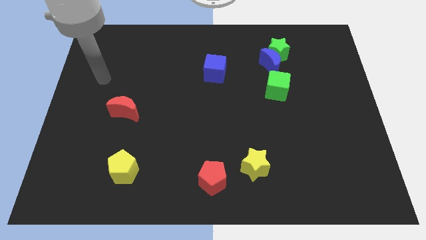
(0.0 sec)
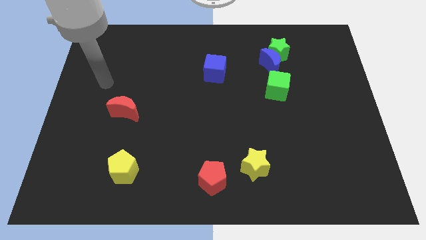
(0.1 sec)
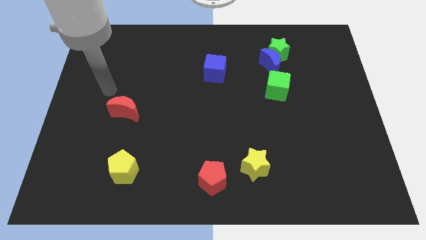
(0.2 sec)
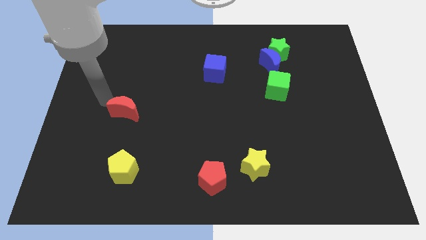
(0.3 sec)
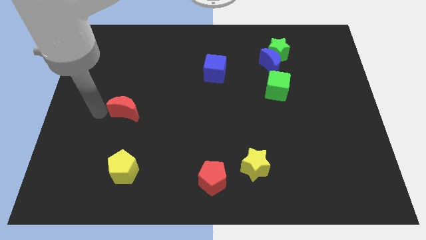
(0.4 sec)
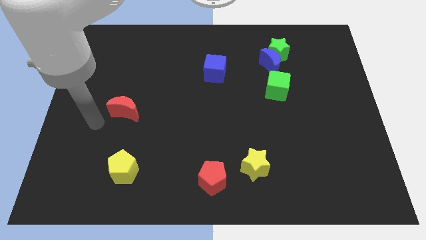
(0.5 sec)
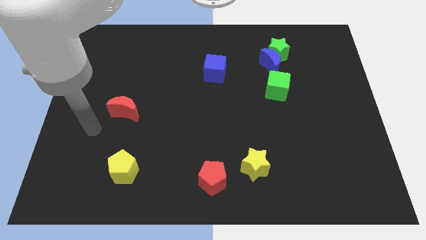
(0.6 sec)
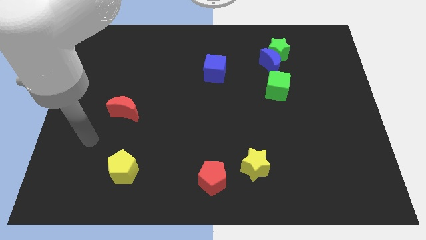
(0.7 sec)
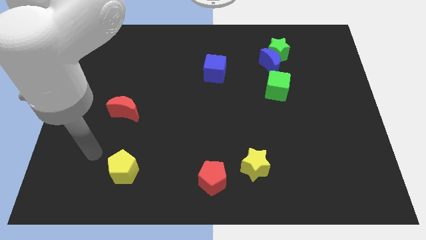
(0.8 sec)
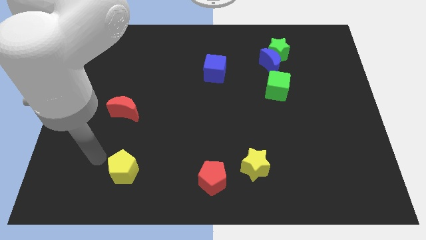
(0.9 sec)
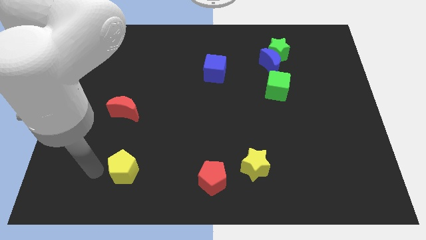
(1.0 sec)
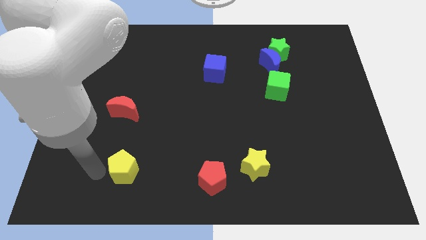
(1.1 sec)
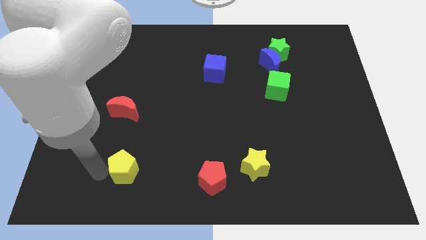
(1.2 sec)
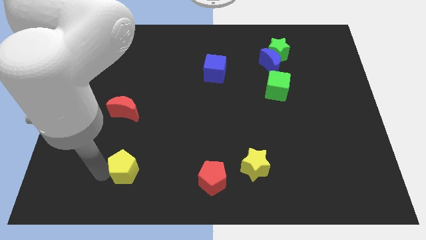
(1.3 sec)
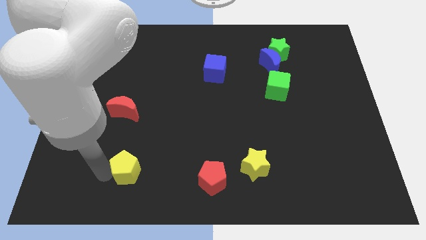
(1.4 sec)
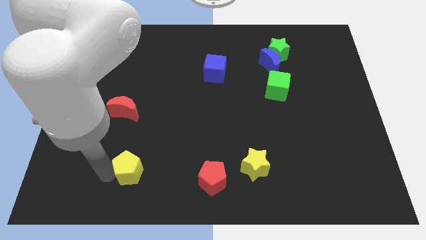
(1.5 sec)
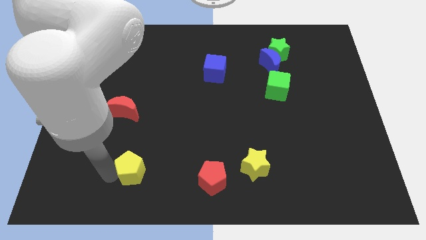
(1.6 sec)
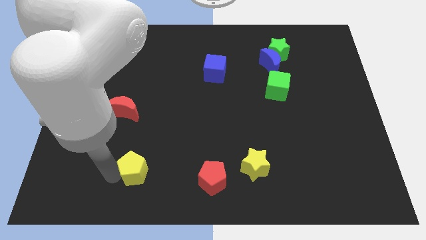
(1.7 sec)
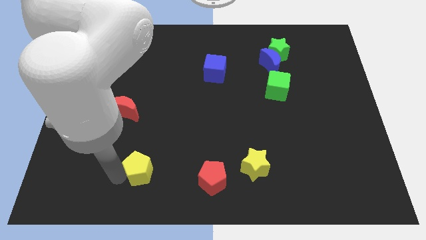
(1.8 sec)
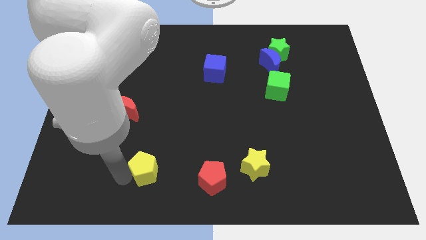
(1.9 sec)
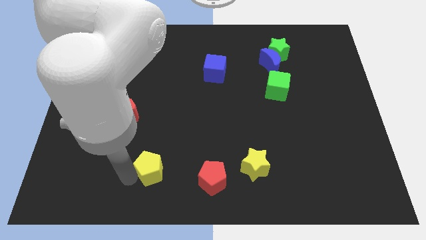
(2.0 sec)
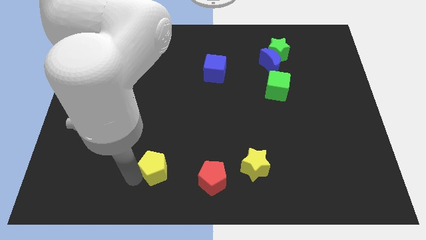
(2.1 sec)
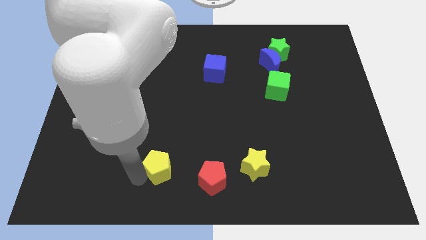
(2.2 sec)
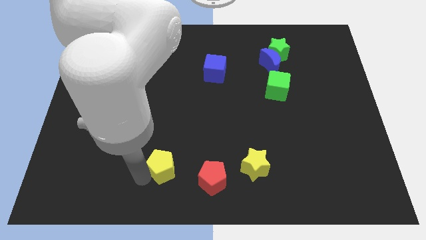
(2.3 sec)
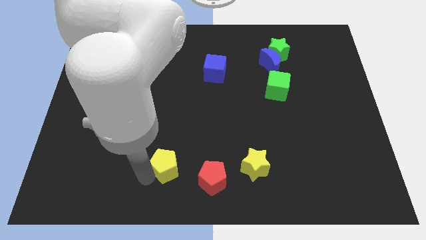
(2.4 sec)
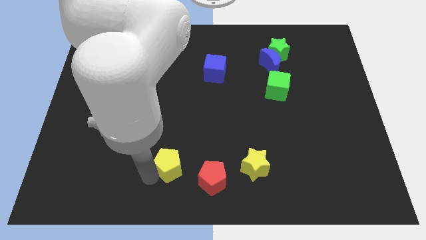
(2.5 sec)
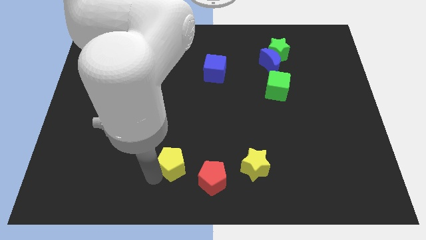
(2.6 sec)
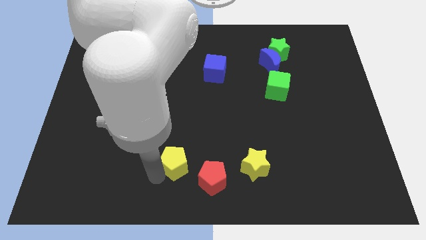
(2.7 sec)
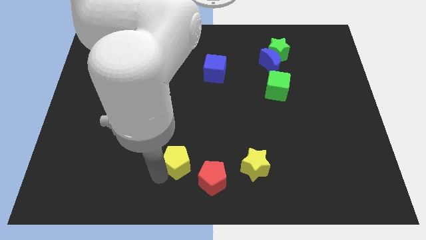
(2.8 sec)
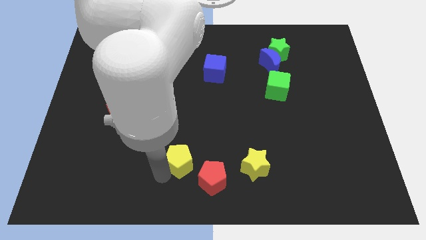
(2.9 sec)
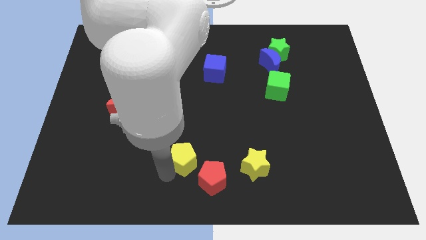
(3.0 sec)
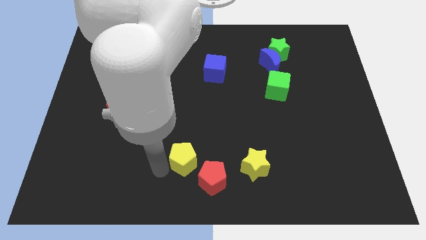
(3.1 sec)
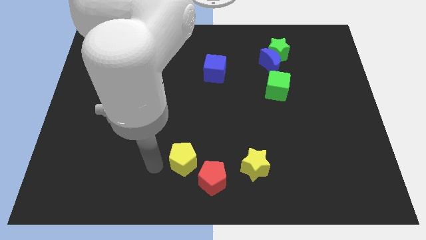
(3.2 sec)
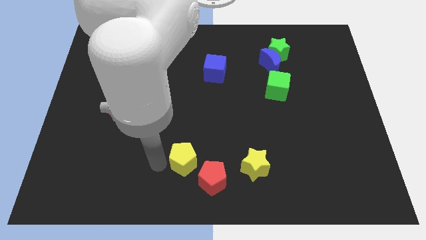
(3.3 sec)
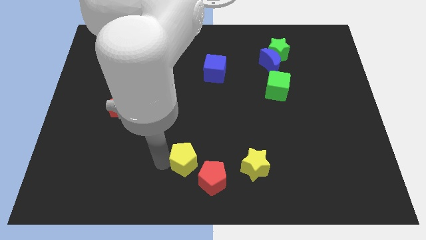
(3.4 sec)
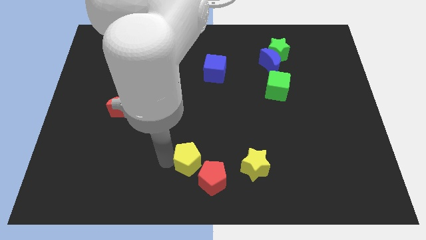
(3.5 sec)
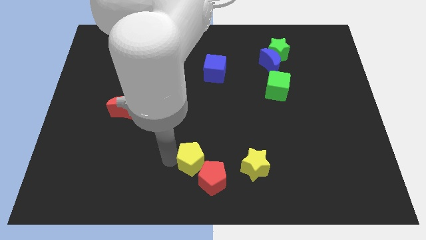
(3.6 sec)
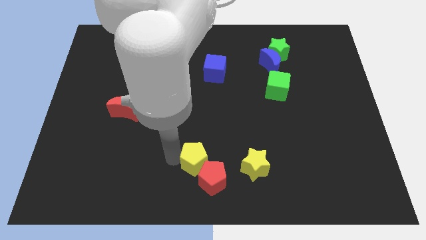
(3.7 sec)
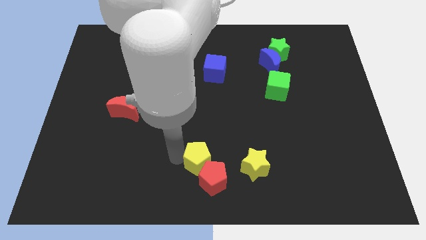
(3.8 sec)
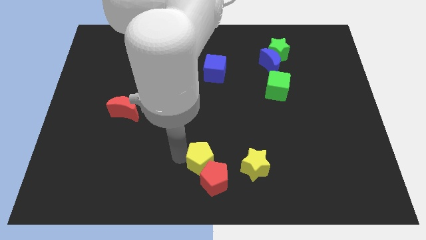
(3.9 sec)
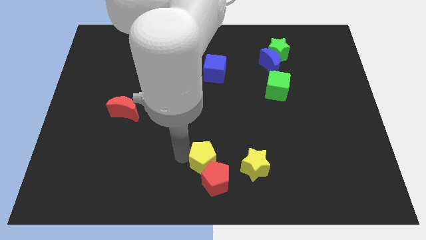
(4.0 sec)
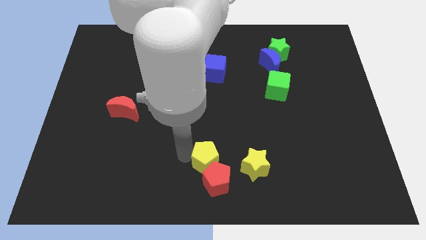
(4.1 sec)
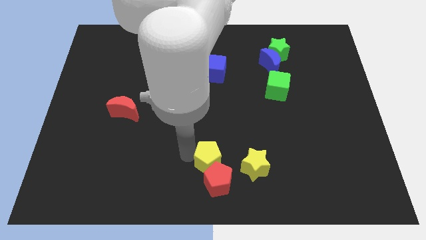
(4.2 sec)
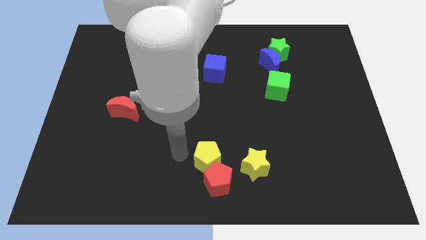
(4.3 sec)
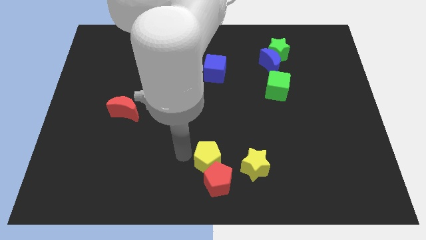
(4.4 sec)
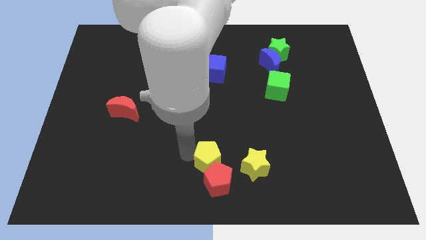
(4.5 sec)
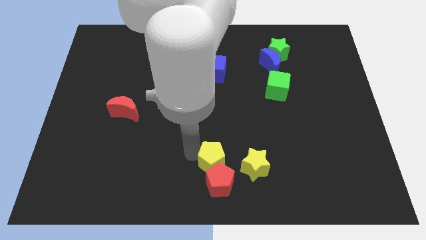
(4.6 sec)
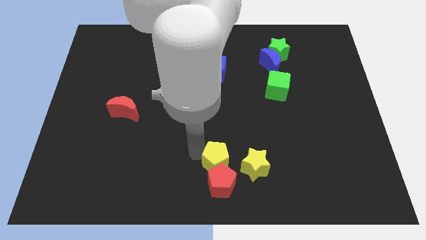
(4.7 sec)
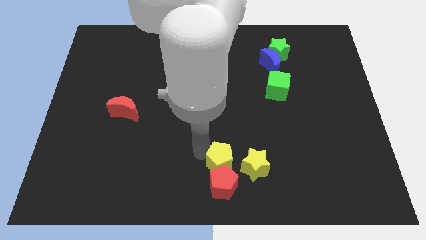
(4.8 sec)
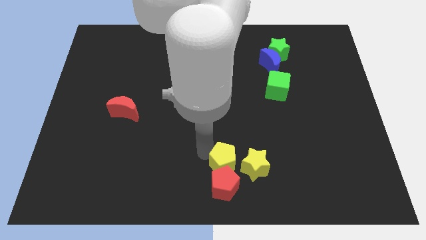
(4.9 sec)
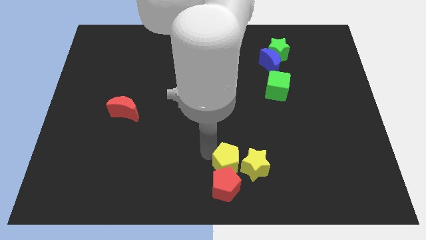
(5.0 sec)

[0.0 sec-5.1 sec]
move the yellow pentagon towards the yellow star

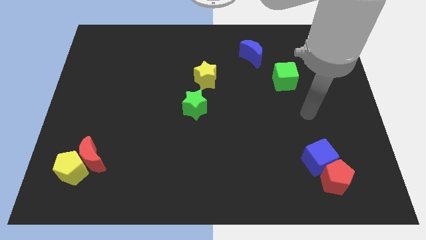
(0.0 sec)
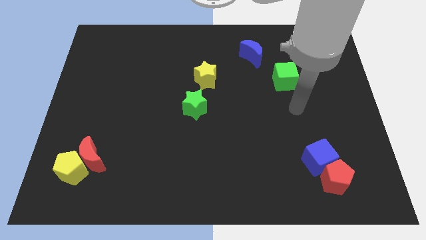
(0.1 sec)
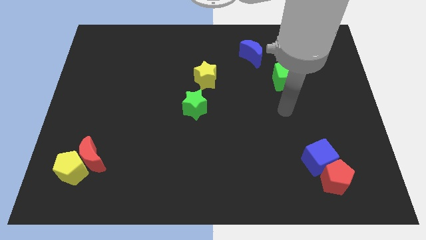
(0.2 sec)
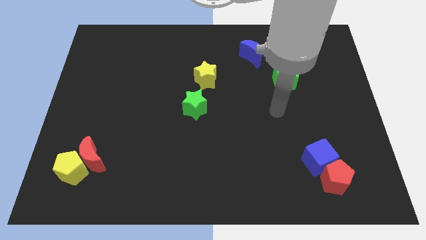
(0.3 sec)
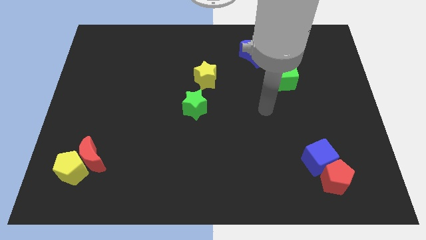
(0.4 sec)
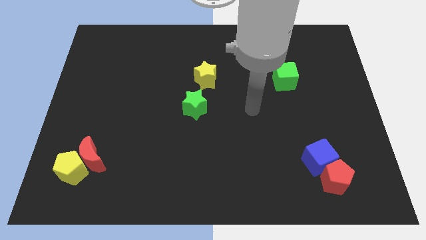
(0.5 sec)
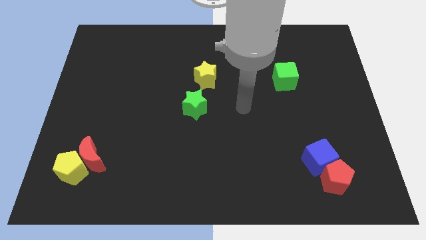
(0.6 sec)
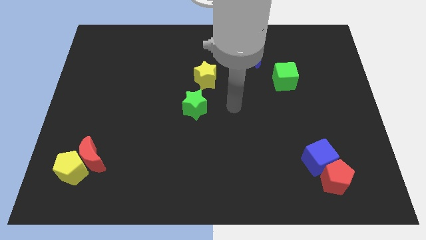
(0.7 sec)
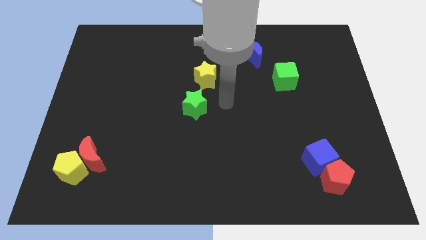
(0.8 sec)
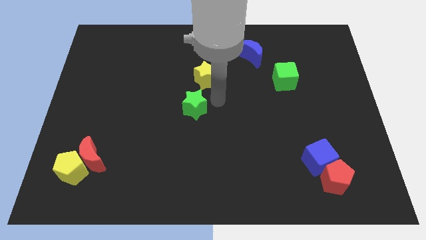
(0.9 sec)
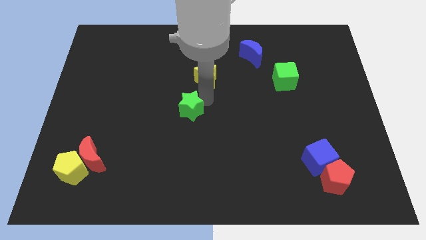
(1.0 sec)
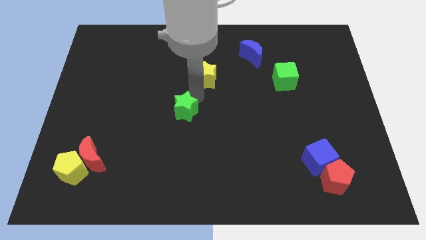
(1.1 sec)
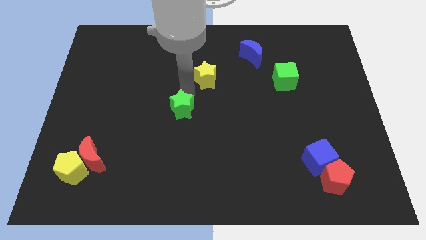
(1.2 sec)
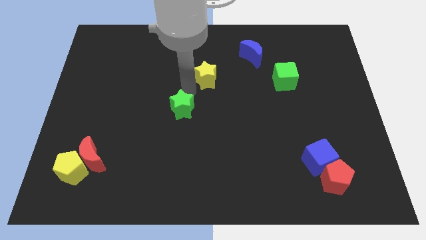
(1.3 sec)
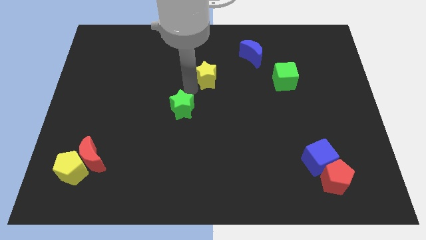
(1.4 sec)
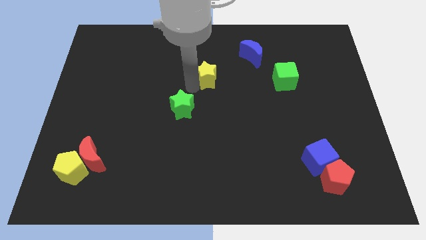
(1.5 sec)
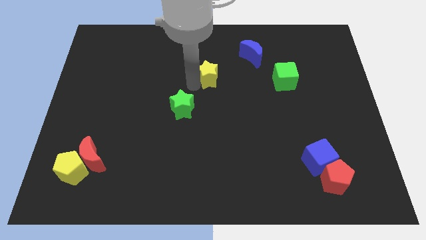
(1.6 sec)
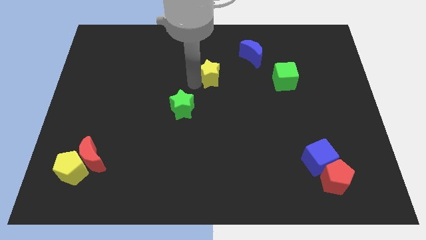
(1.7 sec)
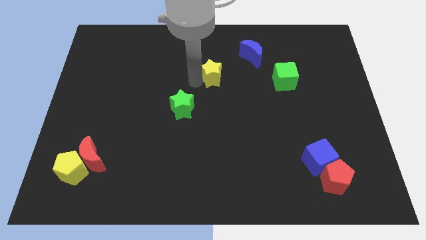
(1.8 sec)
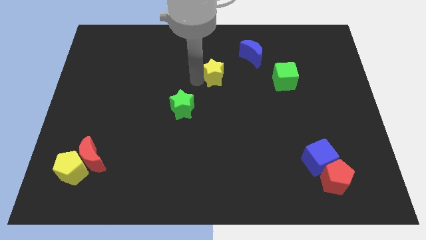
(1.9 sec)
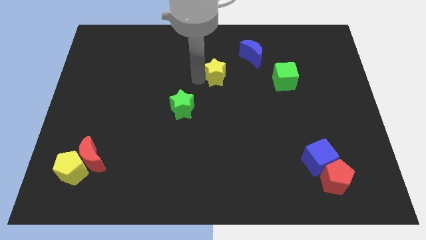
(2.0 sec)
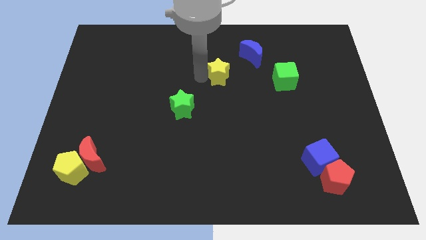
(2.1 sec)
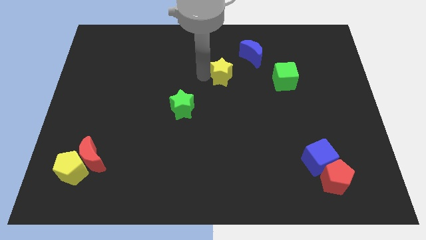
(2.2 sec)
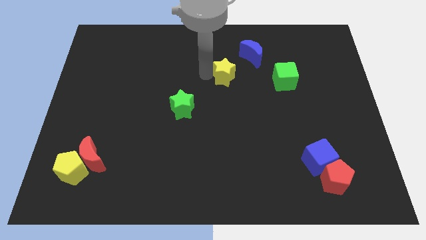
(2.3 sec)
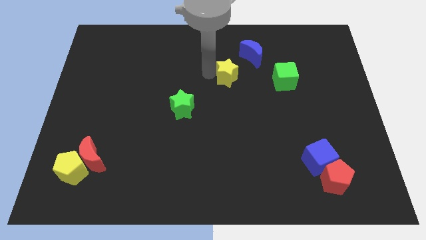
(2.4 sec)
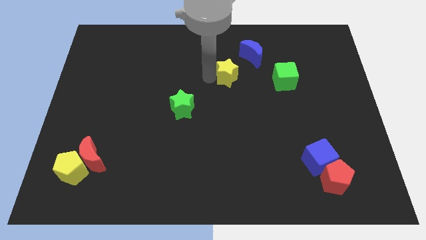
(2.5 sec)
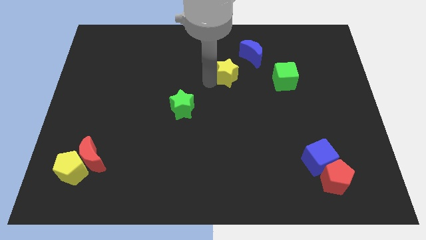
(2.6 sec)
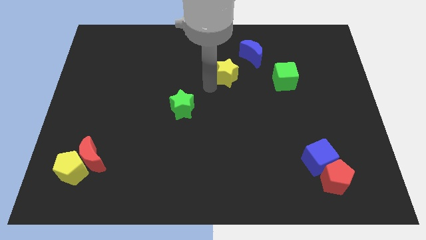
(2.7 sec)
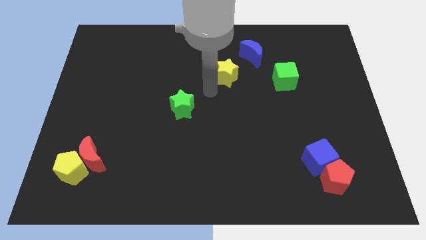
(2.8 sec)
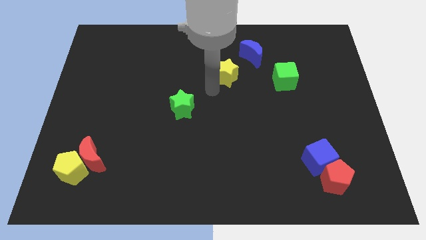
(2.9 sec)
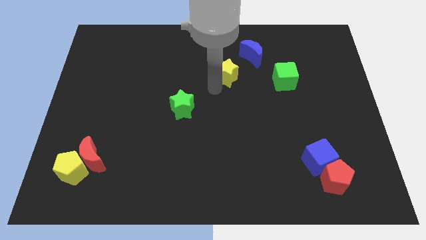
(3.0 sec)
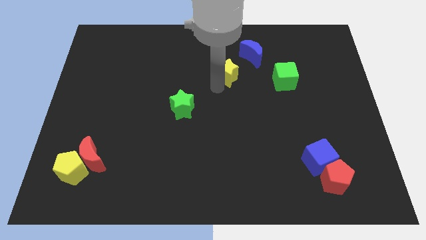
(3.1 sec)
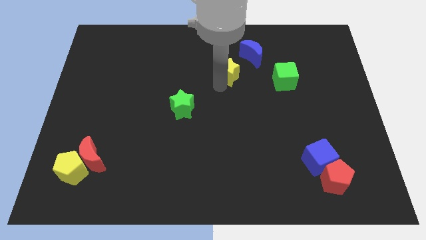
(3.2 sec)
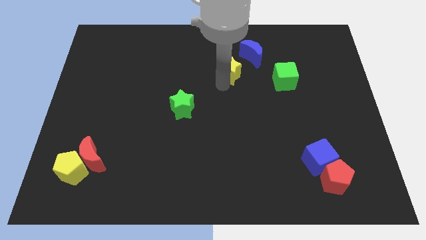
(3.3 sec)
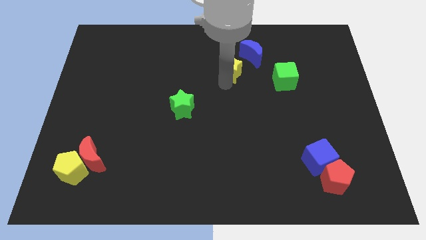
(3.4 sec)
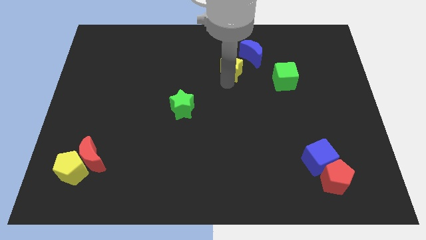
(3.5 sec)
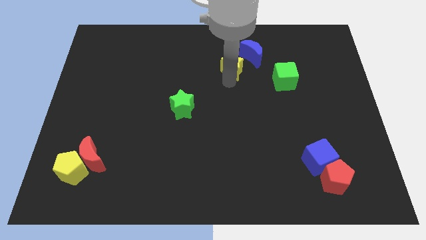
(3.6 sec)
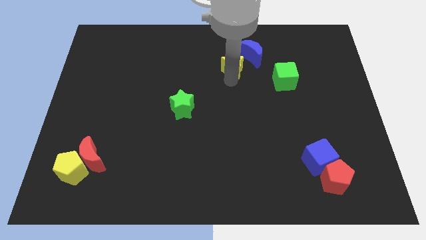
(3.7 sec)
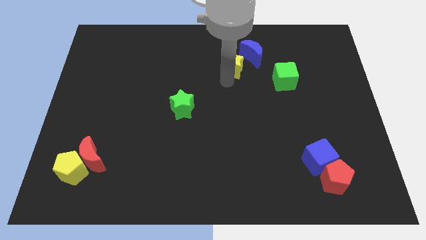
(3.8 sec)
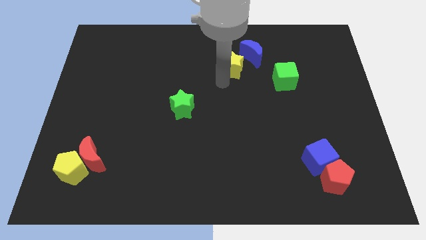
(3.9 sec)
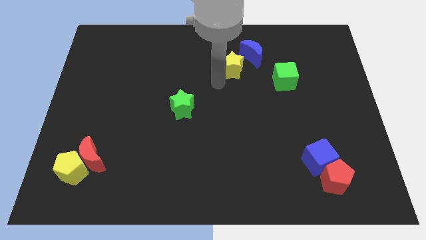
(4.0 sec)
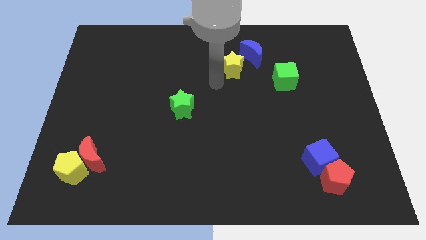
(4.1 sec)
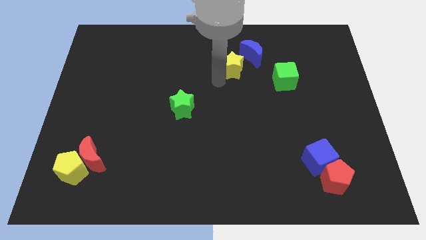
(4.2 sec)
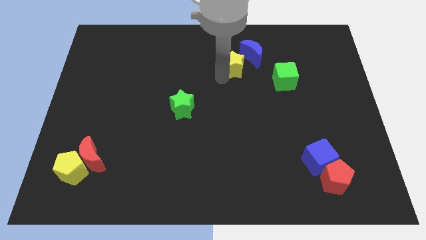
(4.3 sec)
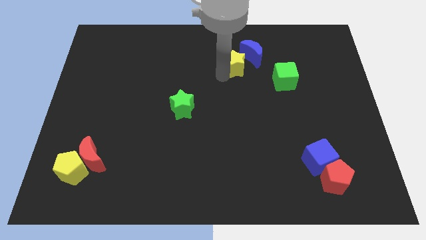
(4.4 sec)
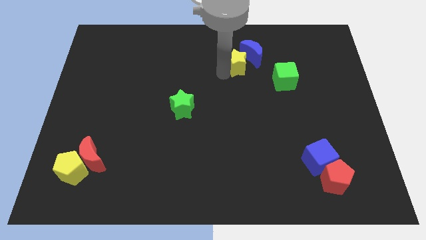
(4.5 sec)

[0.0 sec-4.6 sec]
put the yellow star to the blue moon
